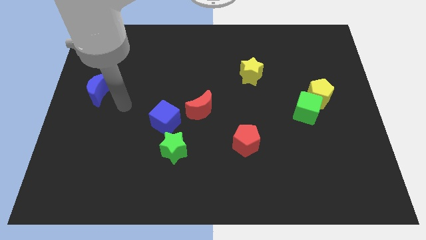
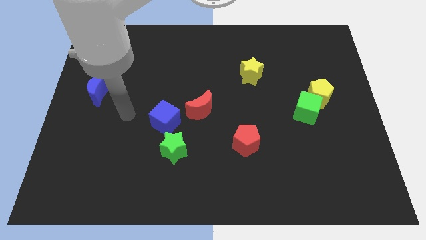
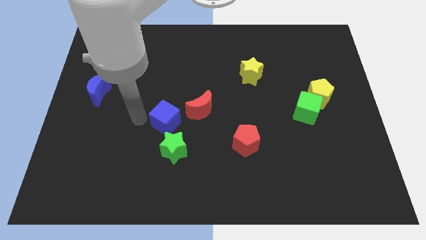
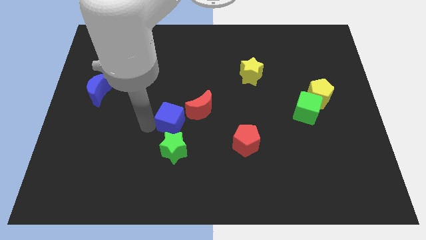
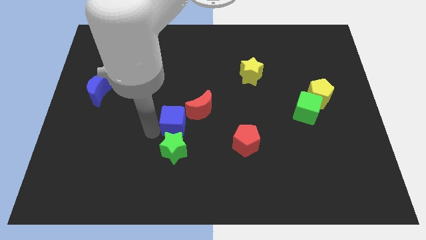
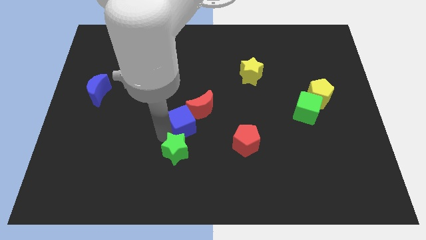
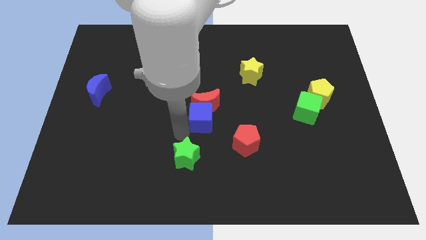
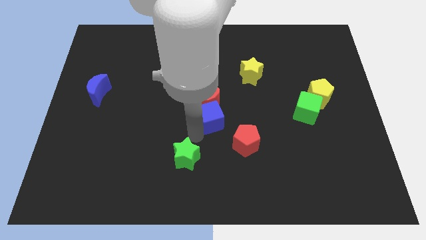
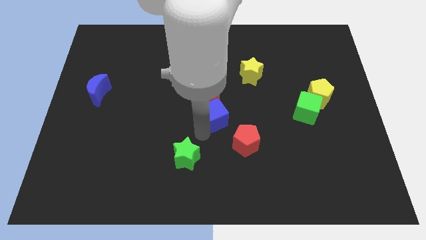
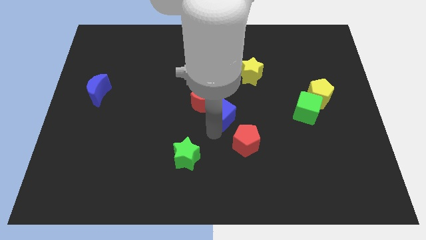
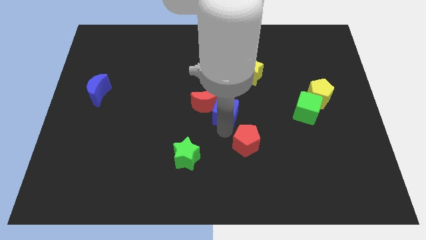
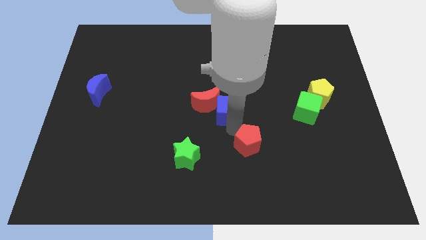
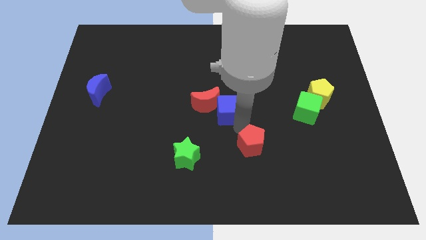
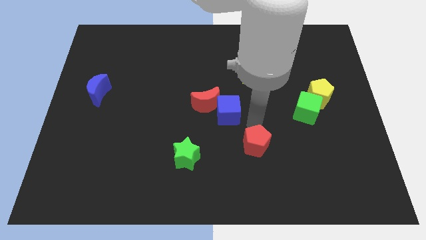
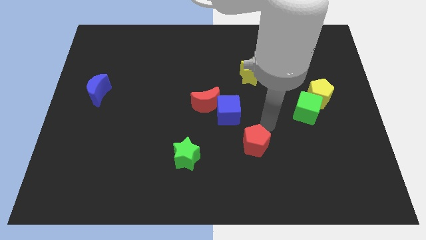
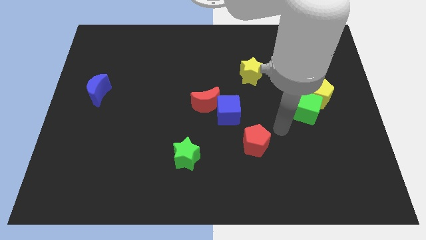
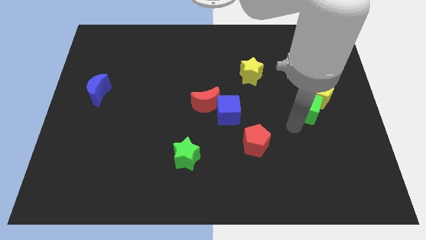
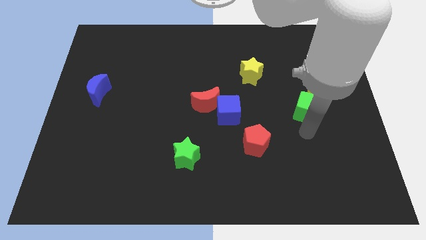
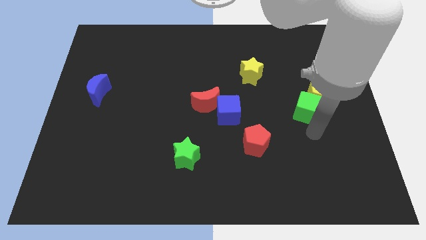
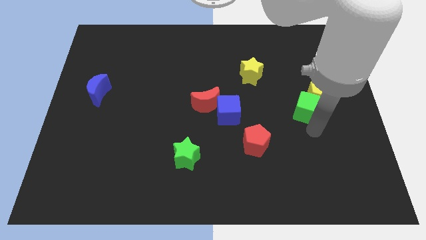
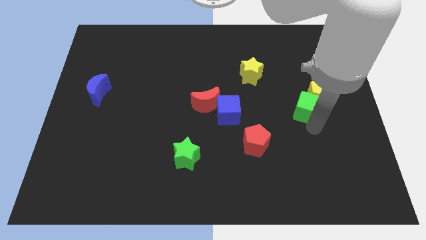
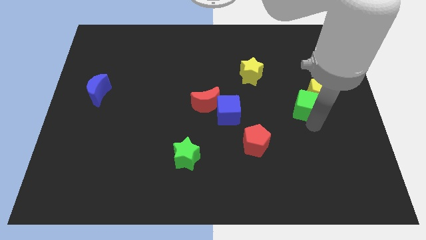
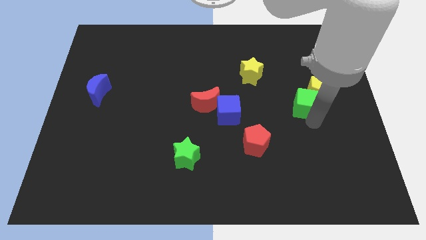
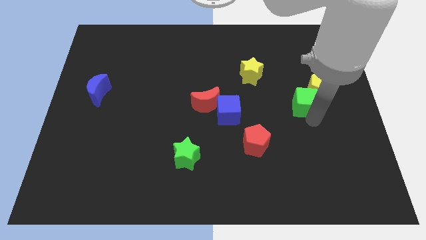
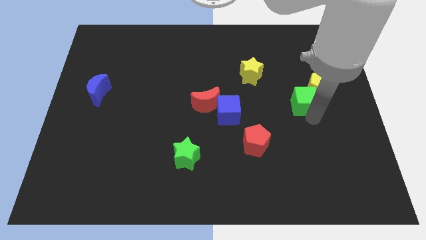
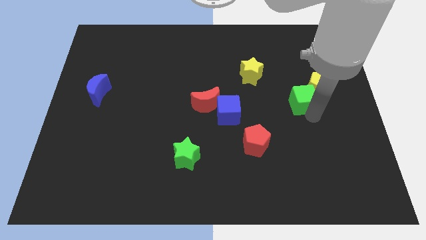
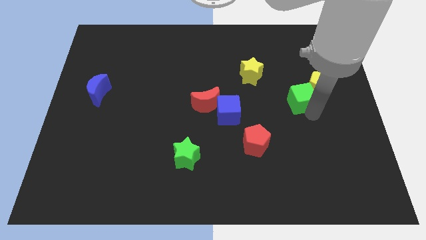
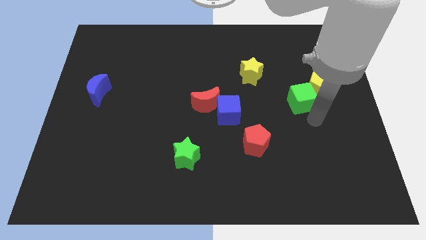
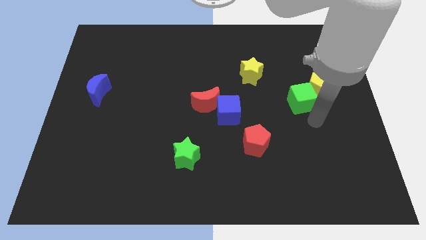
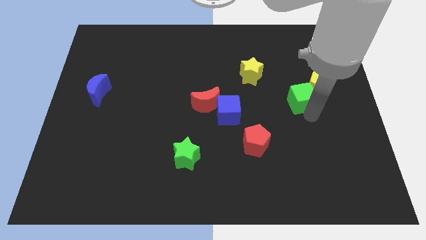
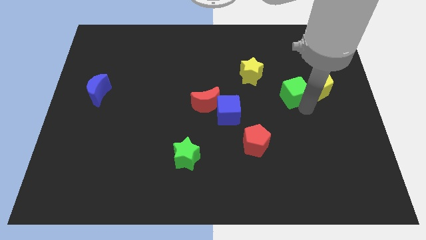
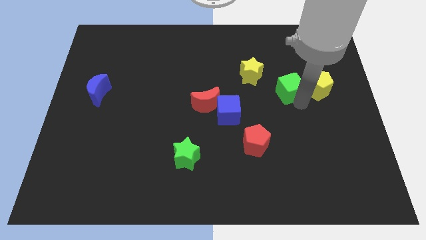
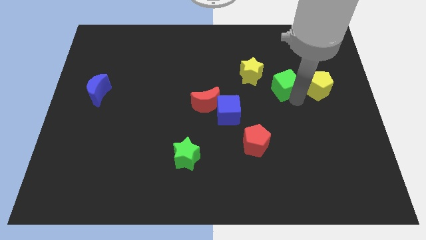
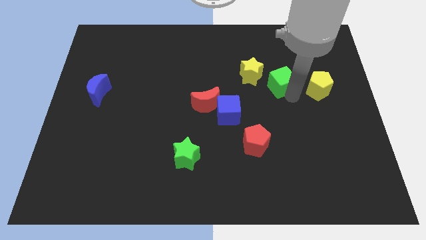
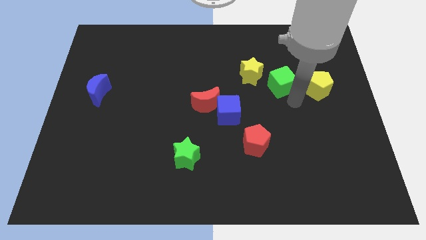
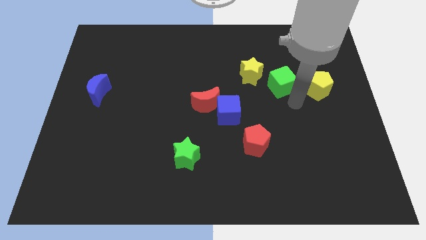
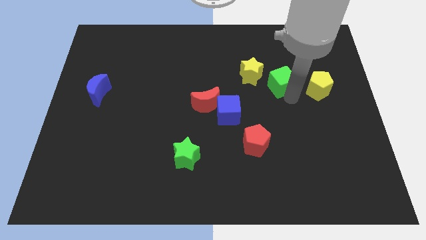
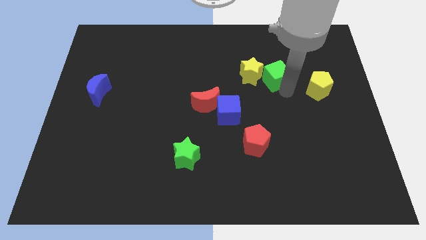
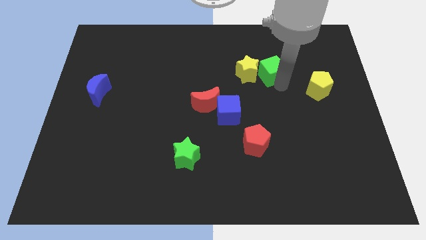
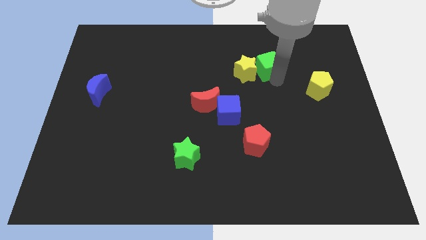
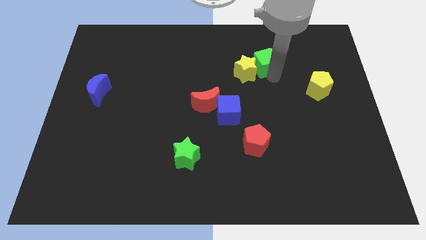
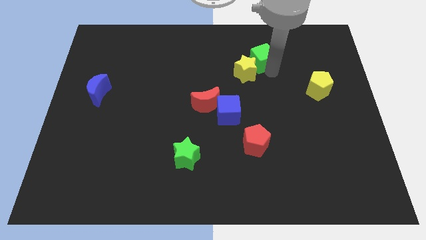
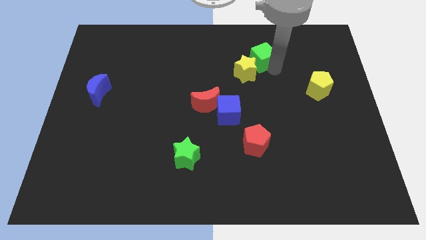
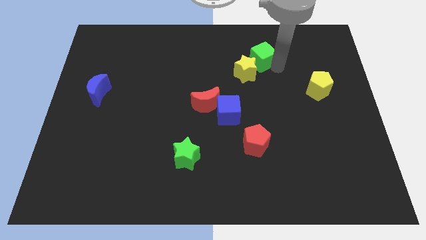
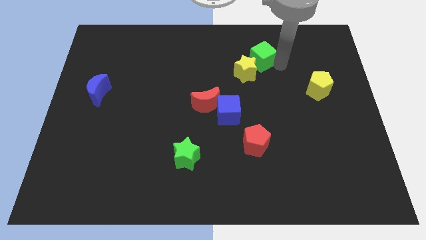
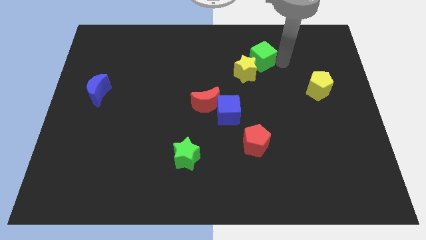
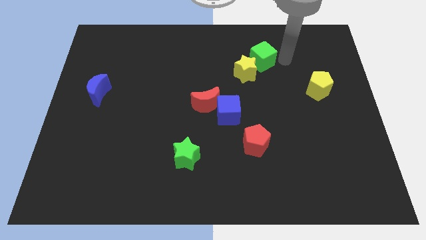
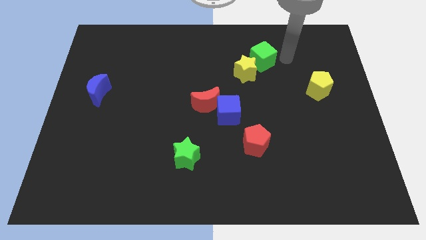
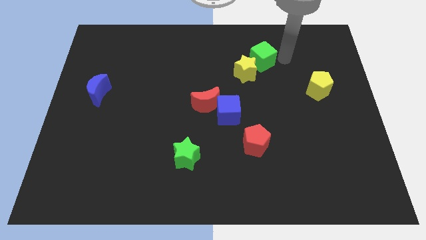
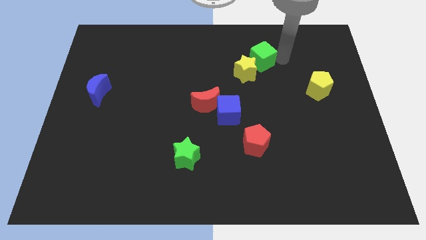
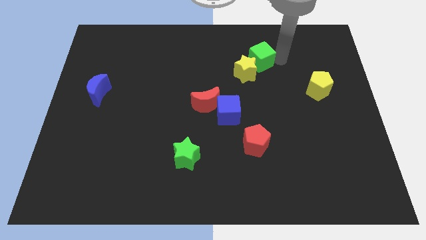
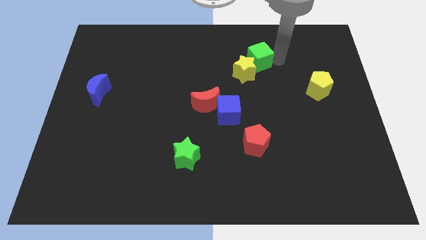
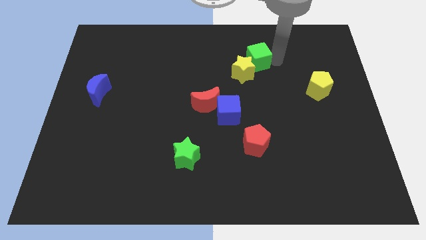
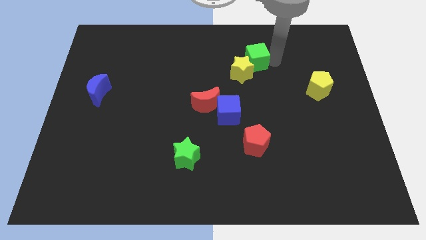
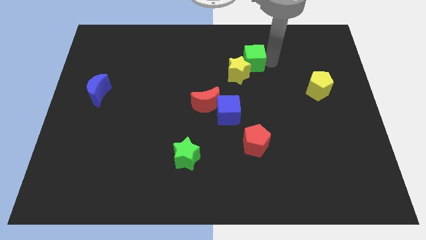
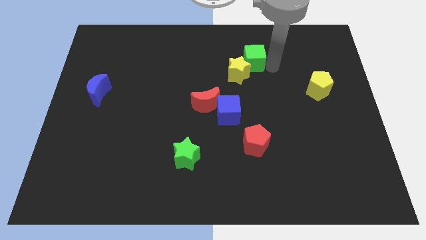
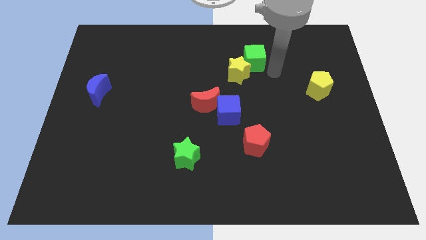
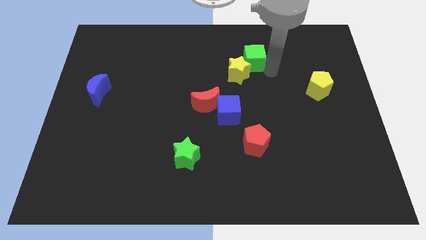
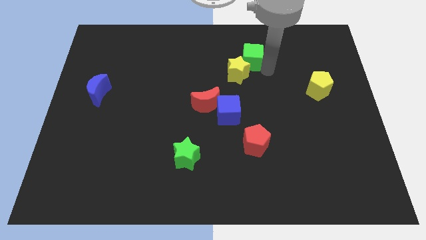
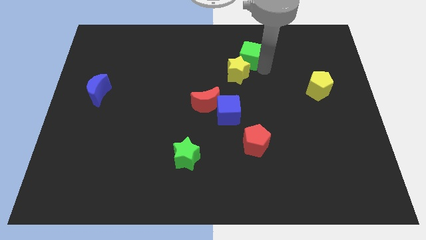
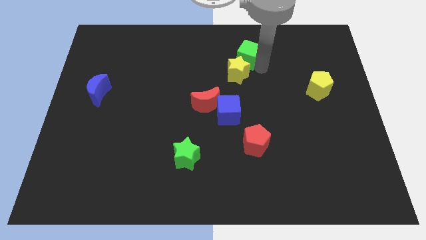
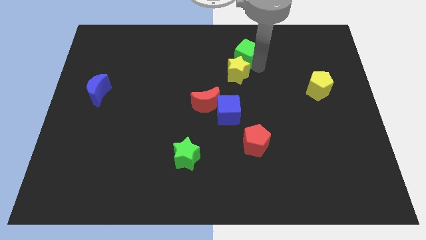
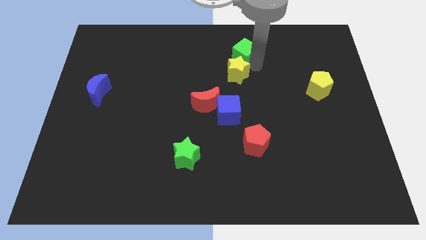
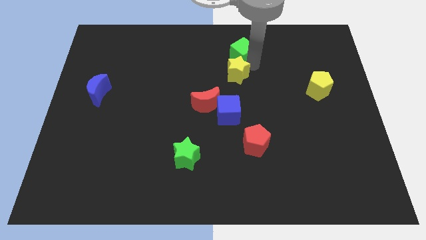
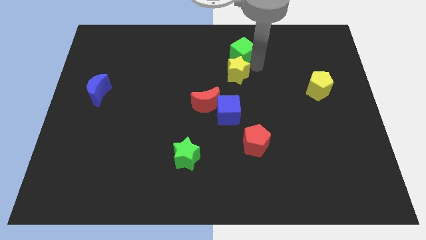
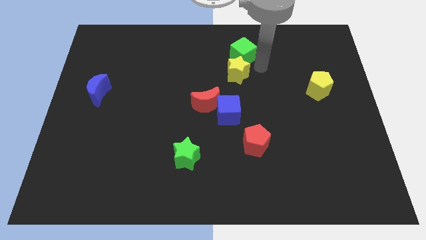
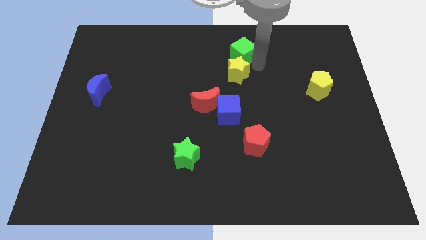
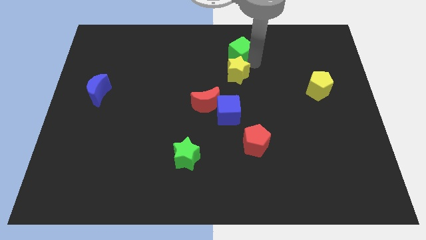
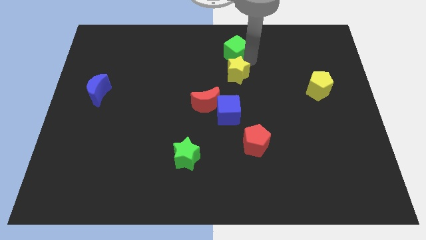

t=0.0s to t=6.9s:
put the green cube to the towards your base

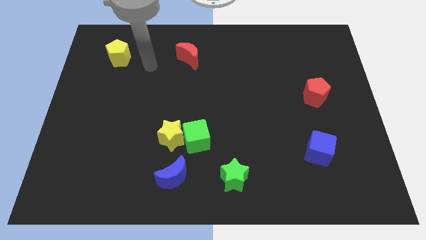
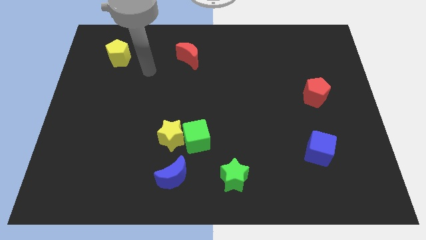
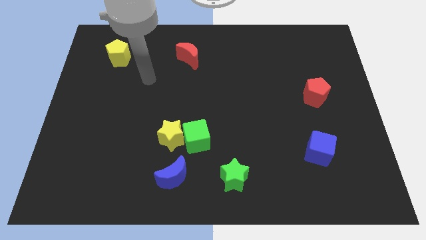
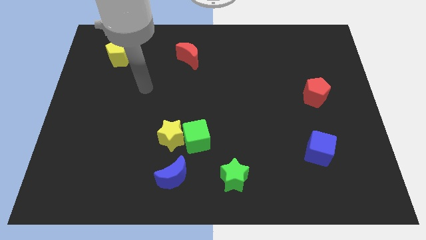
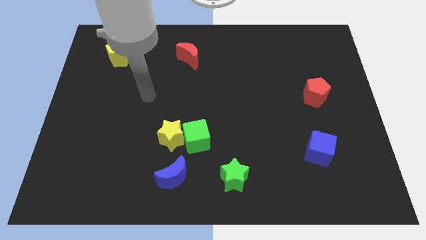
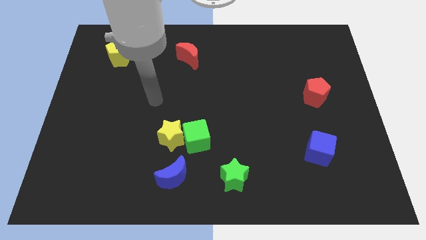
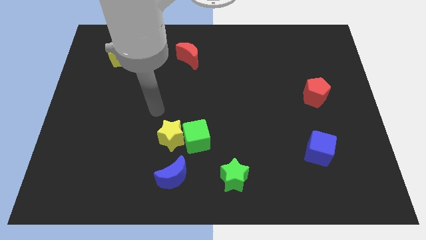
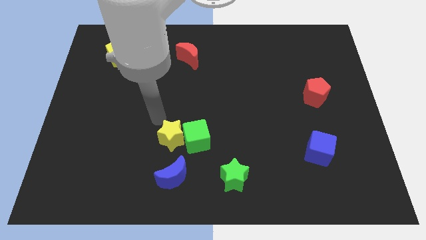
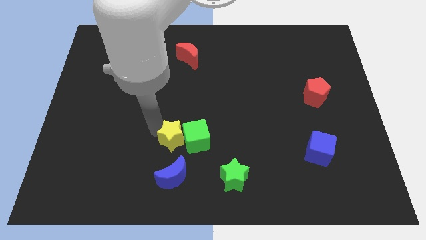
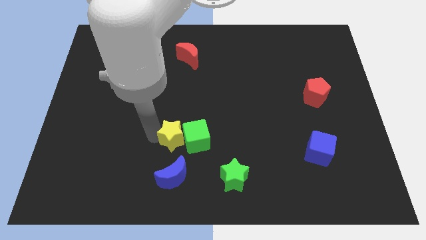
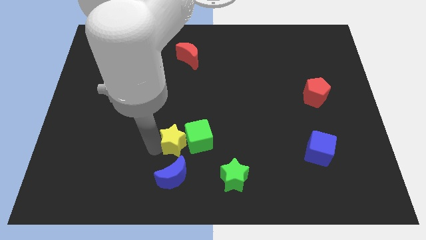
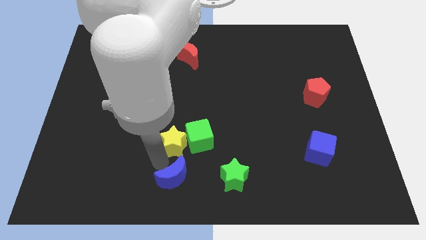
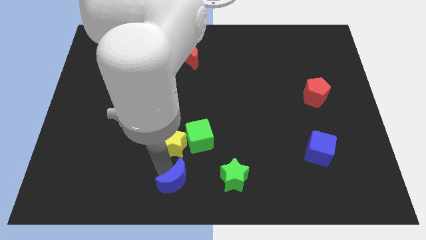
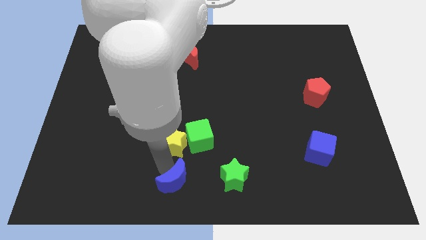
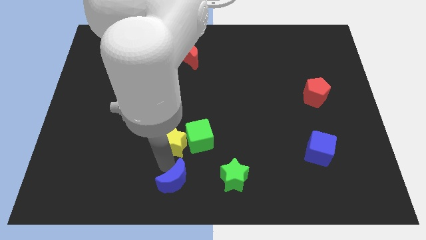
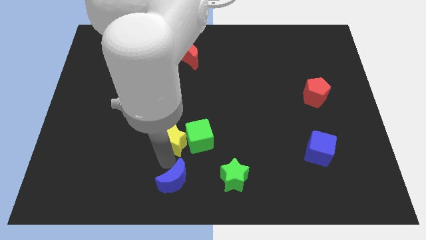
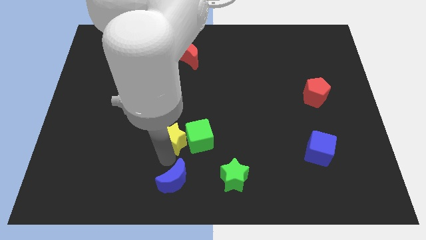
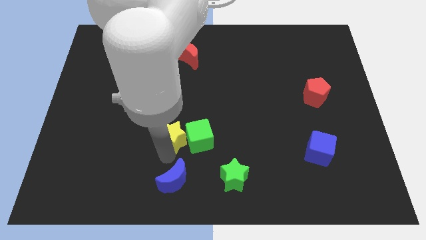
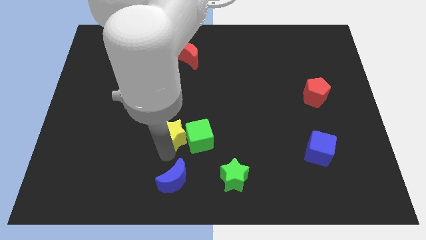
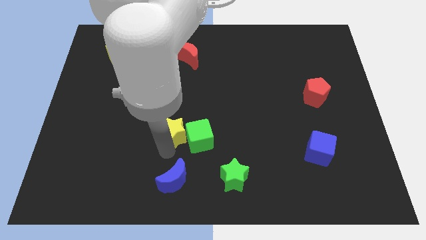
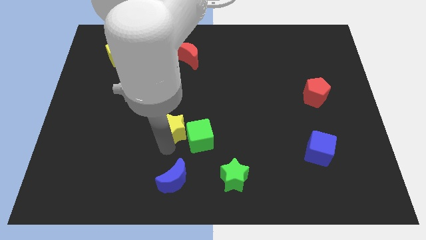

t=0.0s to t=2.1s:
slide the yellow star to the middle of the board
